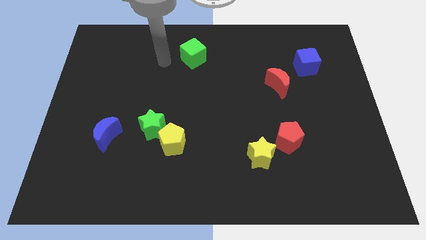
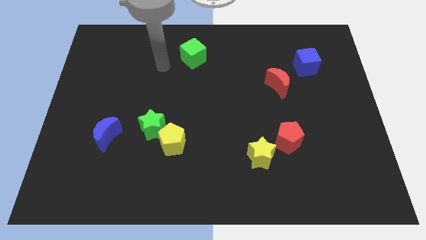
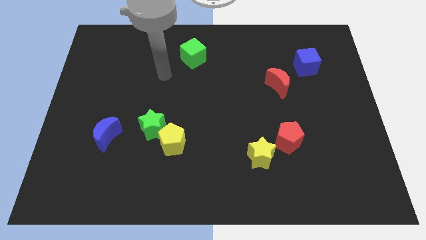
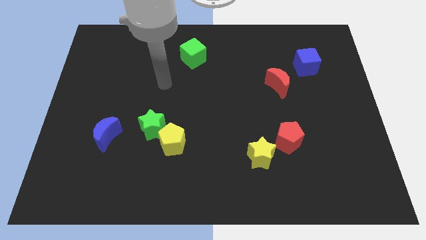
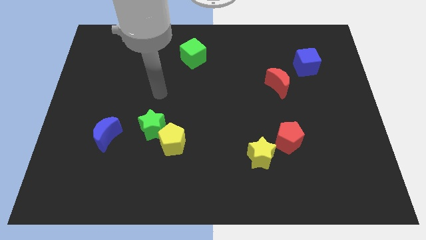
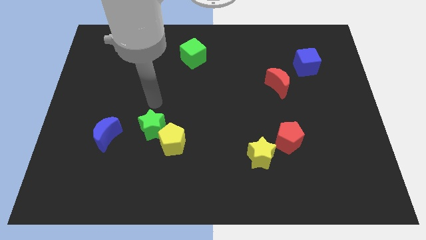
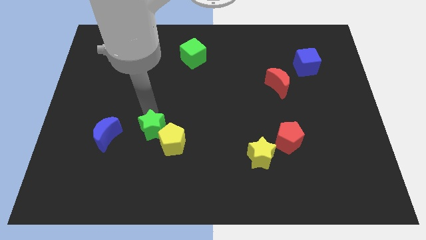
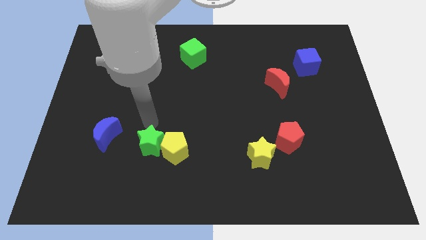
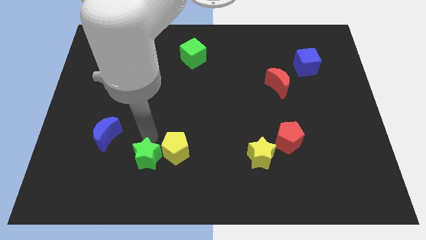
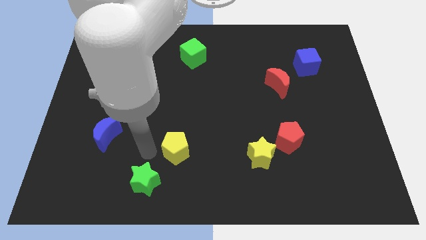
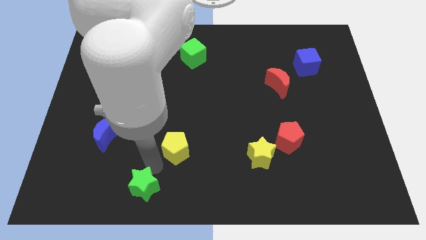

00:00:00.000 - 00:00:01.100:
move the yellow pentagon away from the green star

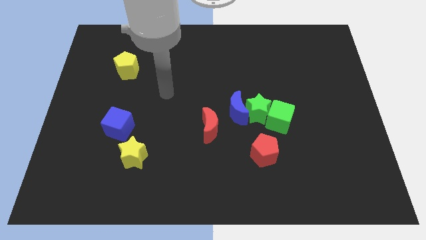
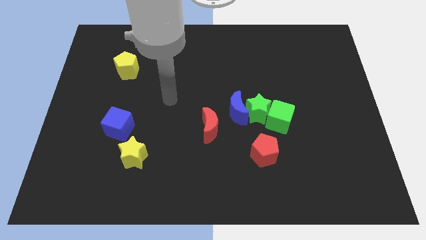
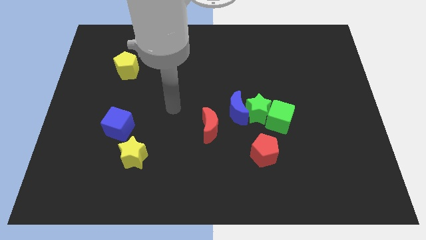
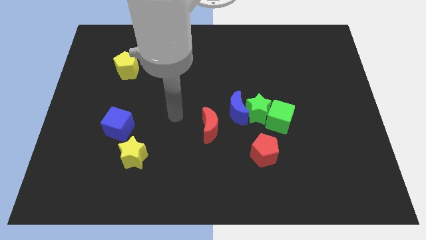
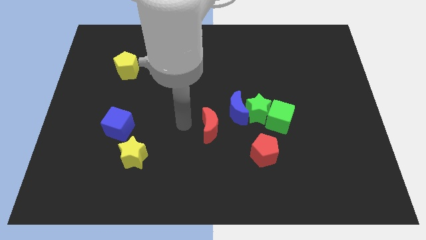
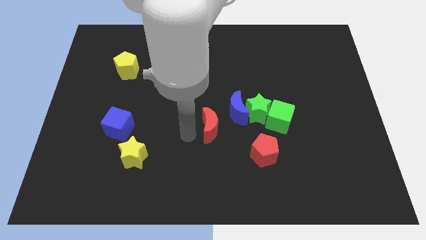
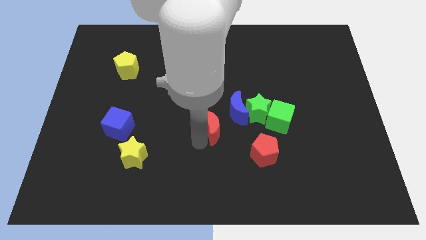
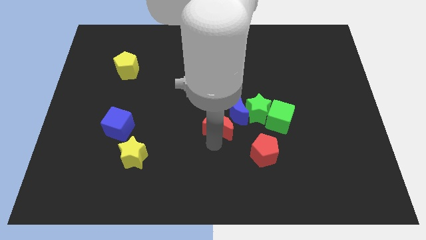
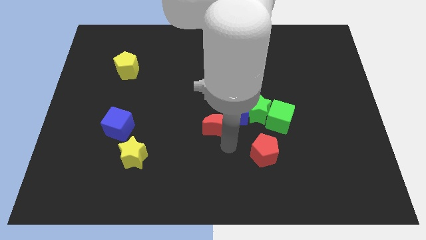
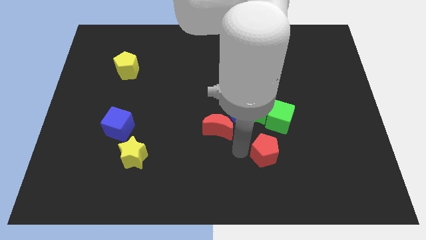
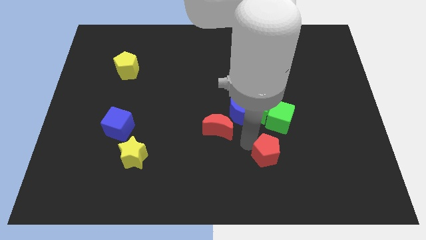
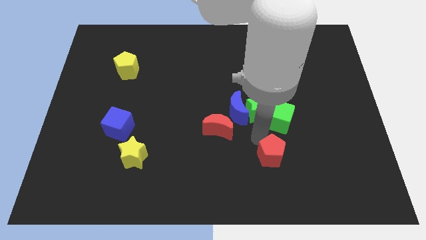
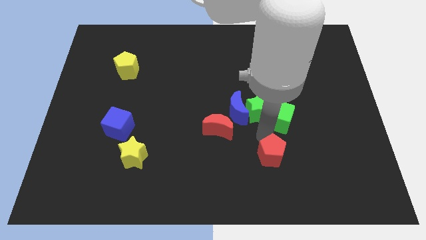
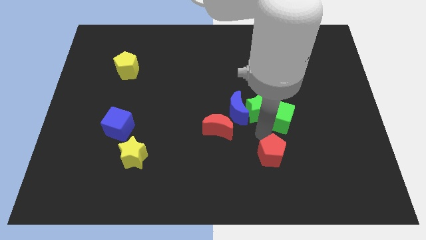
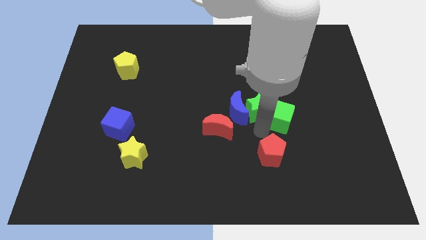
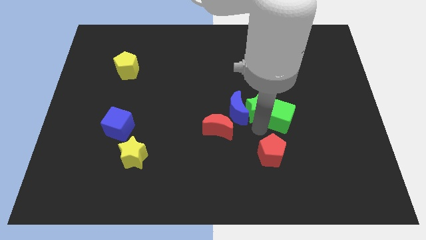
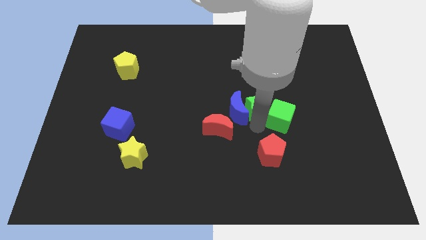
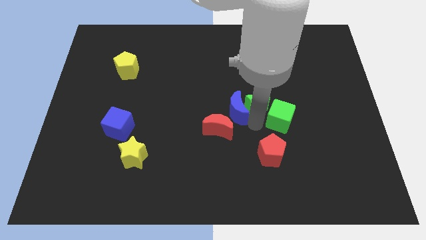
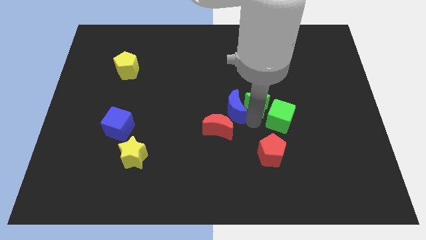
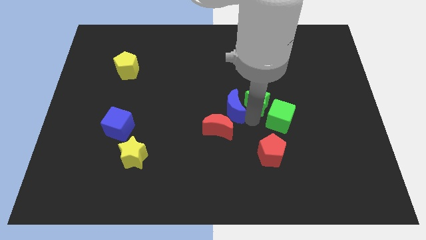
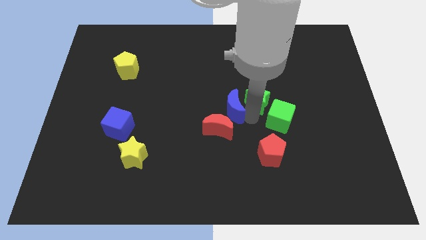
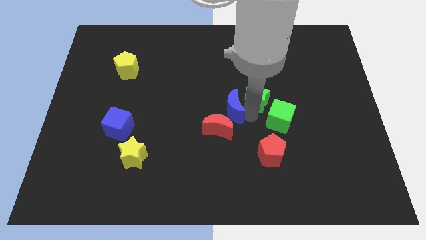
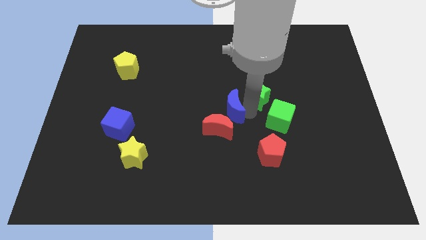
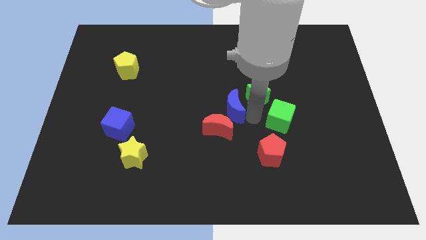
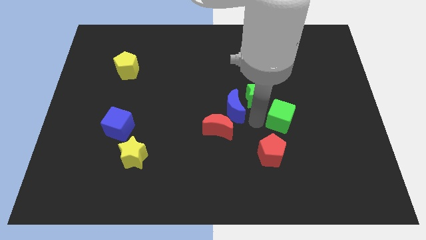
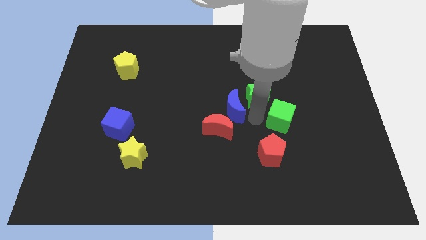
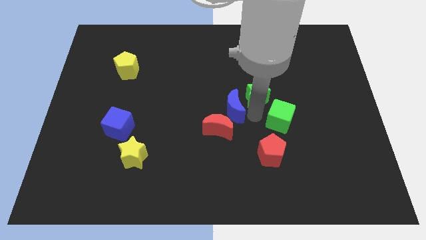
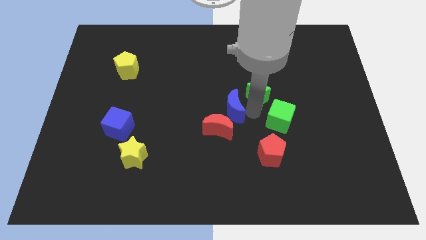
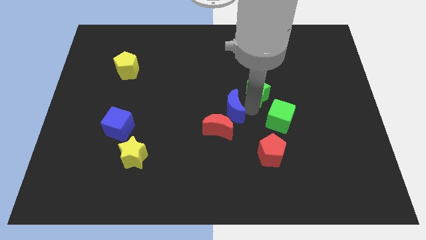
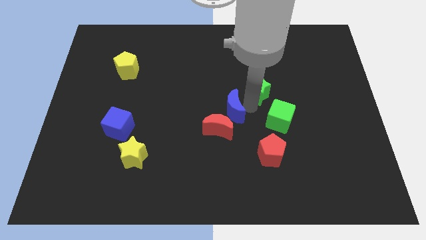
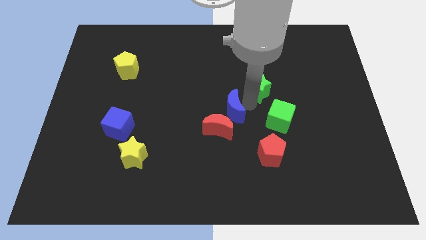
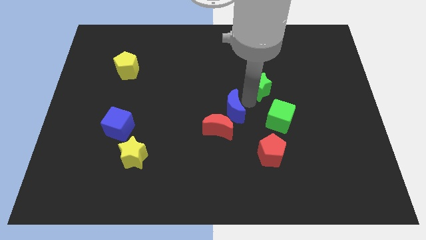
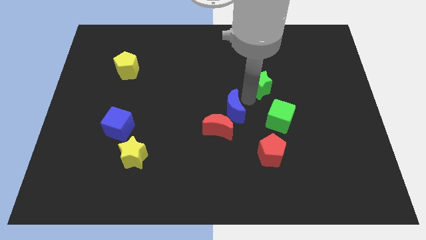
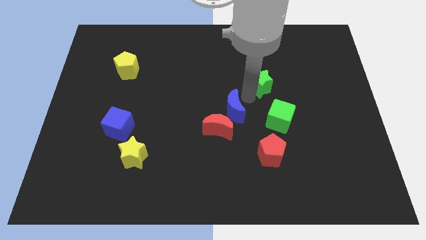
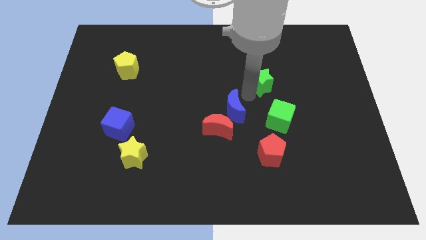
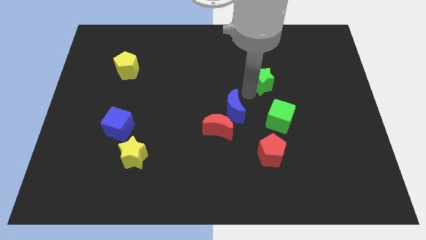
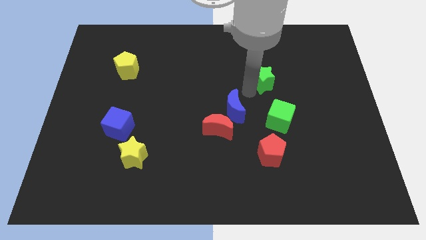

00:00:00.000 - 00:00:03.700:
separate the green star from the blue moon and green cube

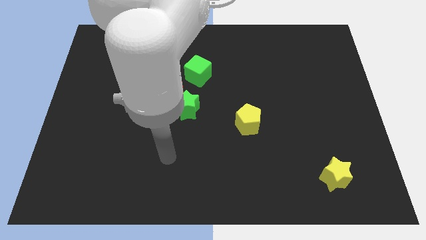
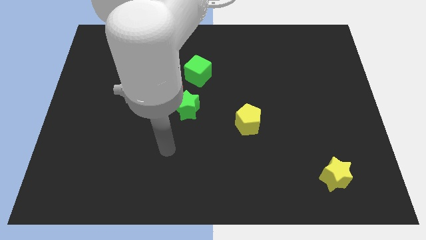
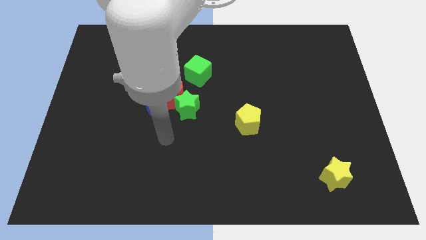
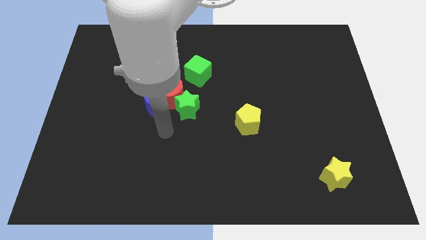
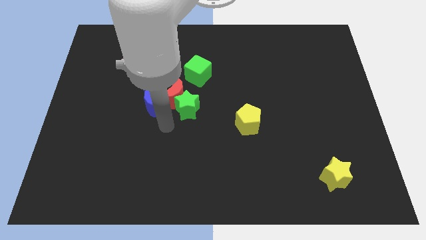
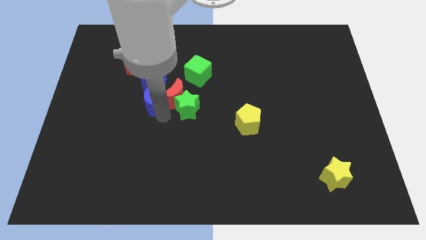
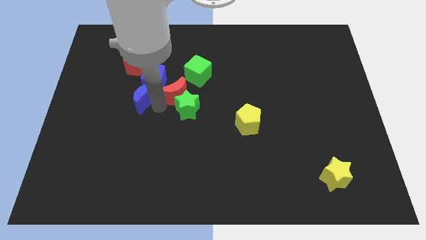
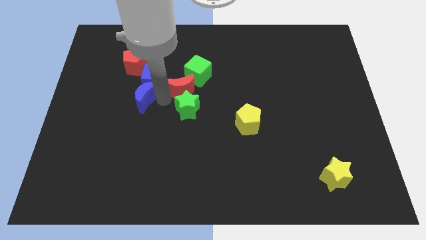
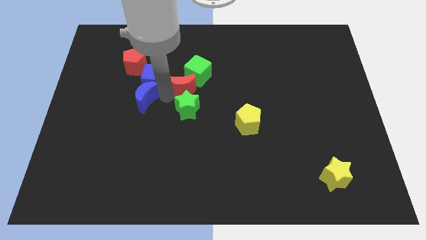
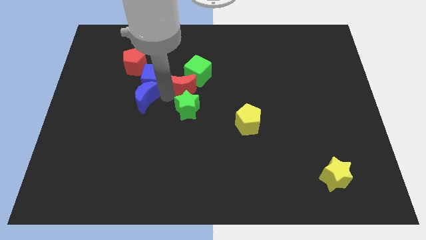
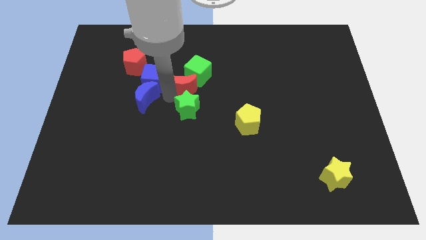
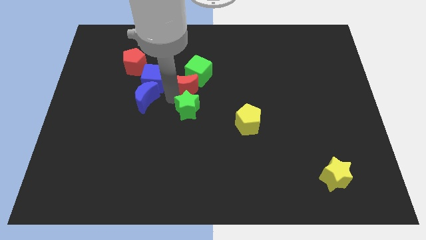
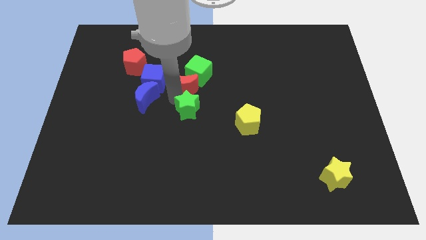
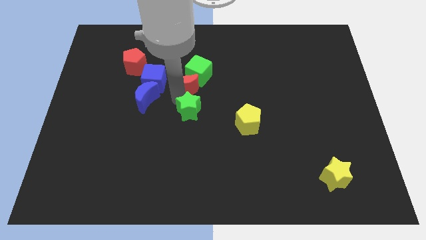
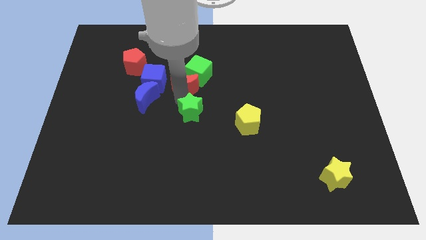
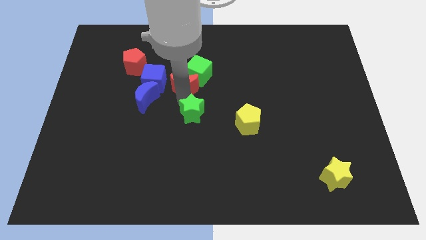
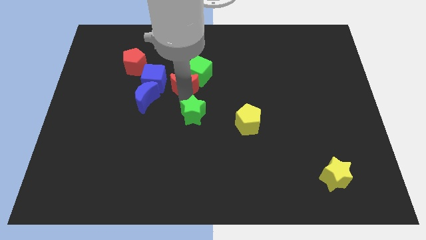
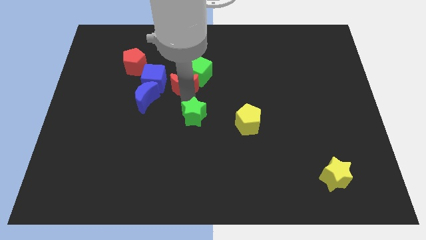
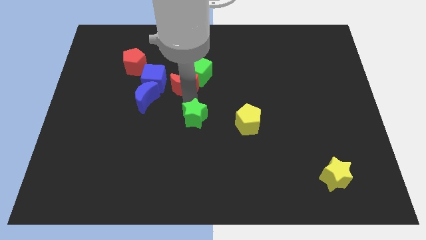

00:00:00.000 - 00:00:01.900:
pull the green star apart from the red moon and blue moon

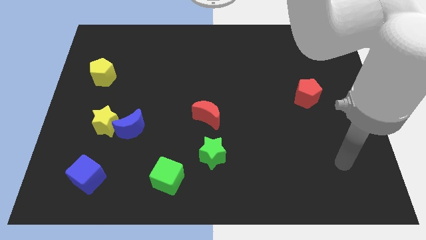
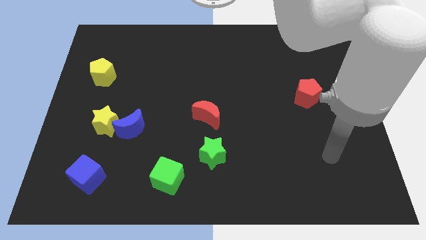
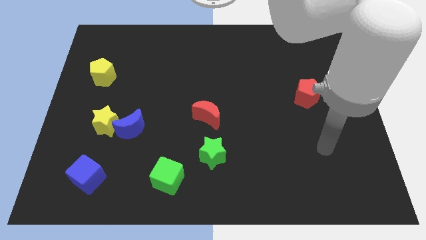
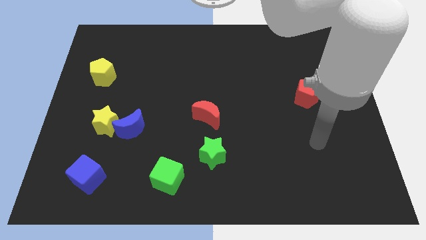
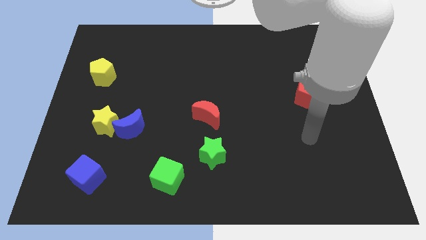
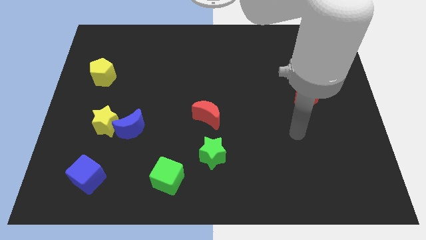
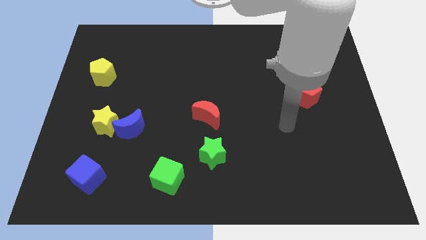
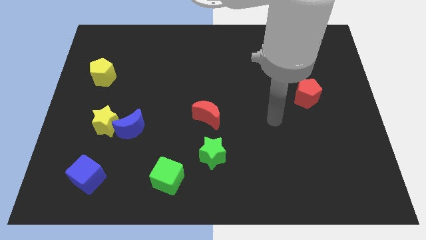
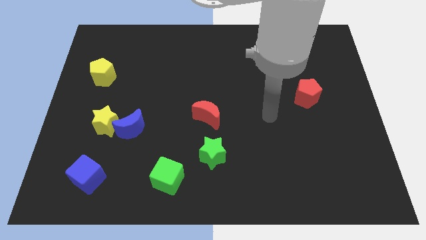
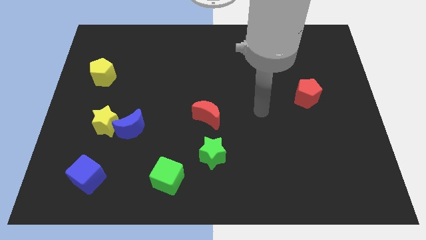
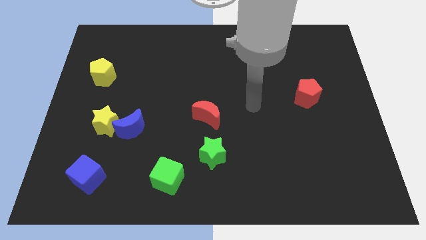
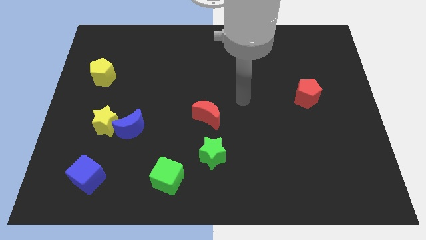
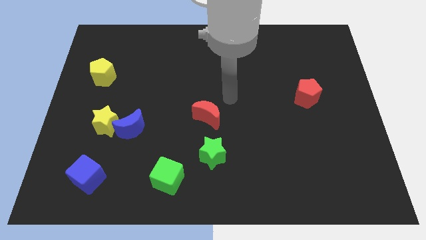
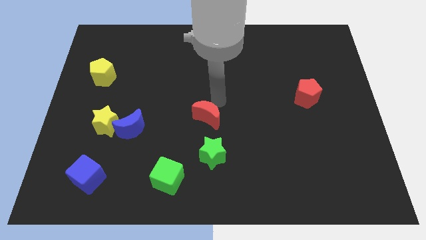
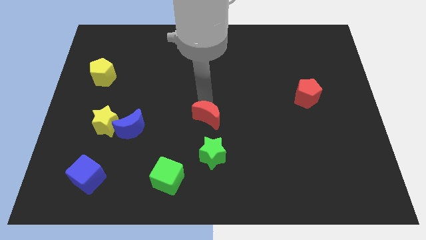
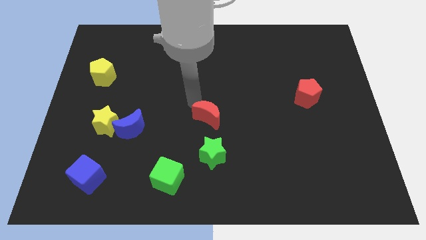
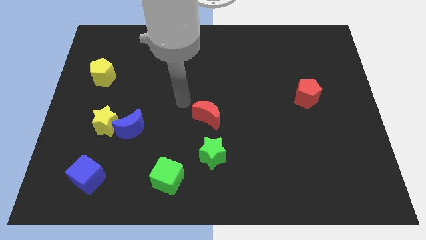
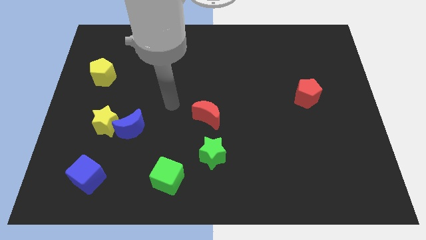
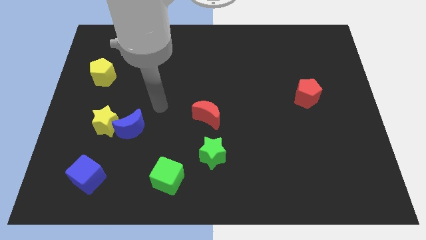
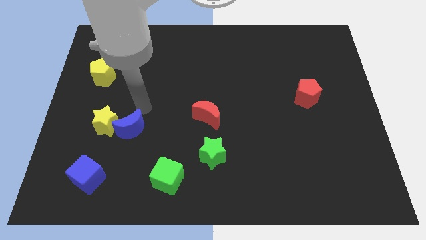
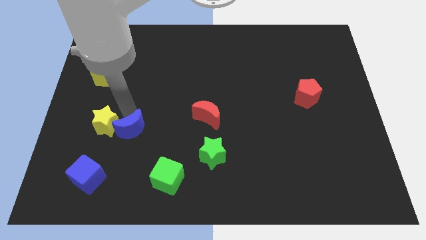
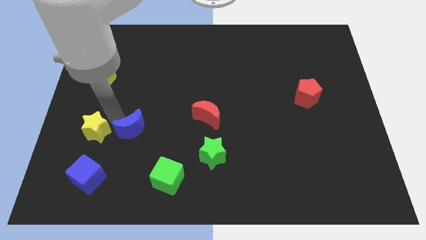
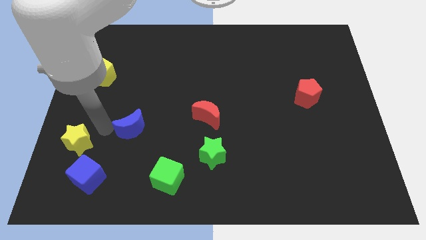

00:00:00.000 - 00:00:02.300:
pull the blue moon apart from the yellow star

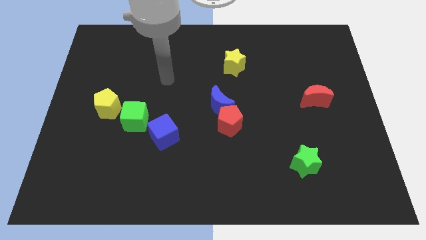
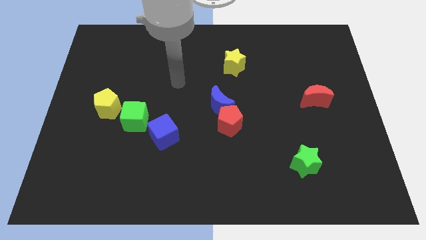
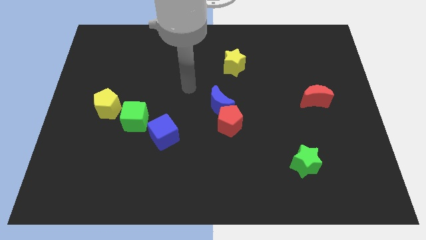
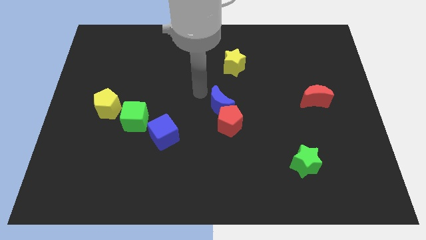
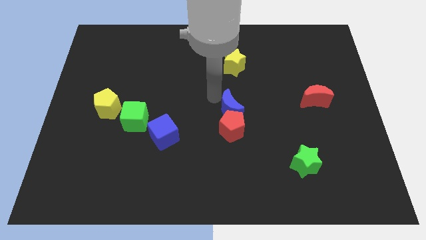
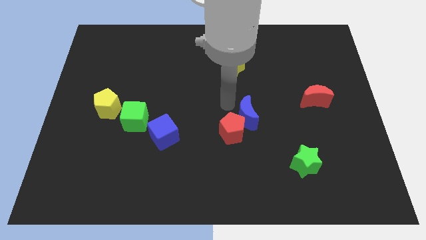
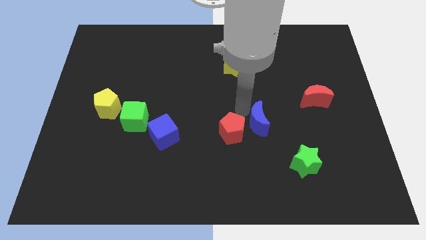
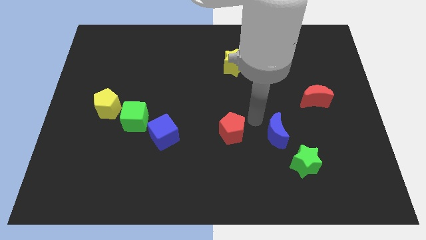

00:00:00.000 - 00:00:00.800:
pull the red pentagon apart from the blue moon
